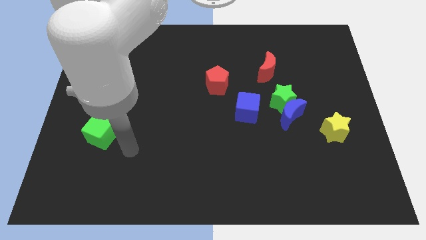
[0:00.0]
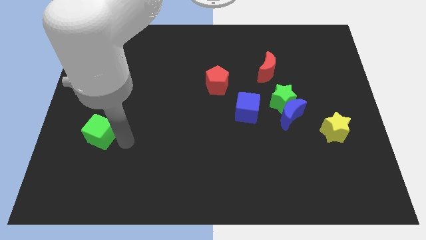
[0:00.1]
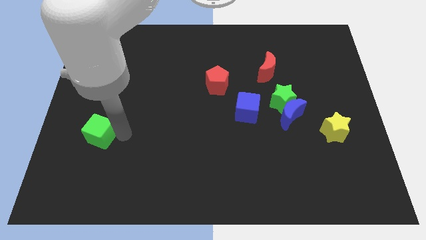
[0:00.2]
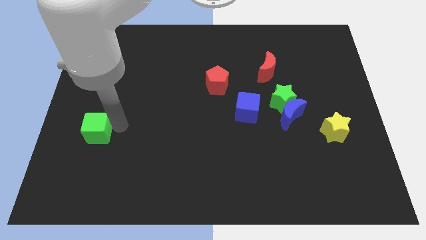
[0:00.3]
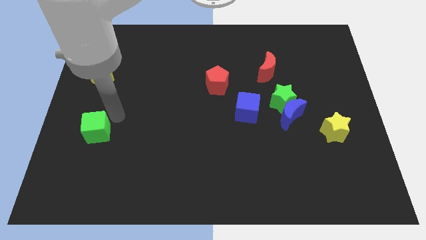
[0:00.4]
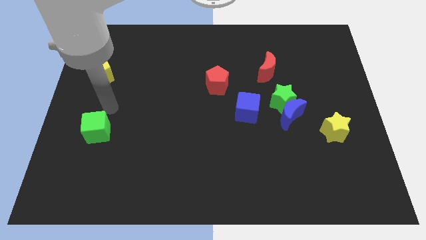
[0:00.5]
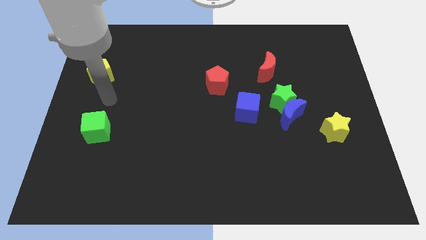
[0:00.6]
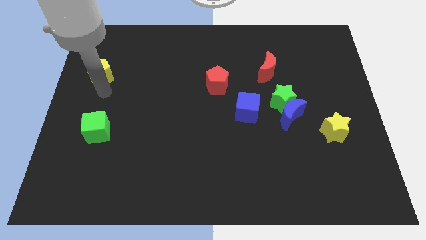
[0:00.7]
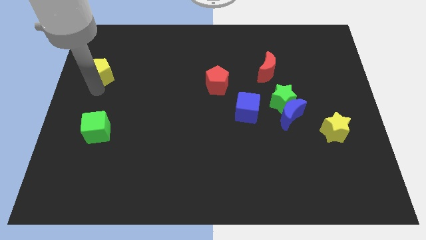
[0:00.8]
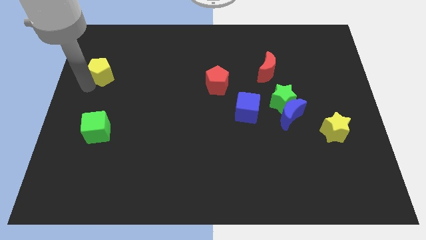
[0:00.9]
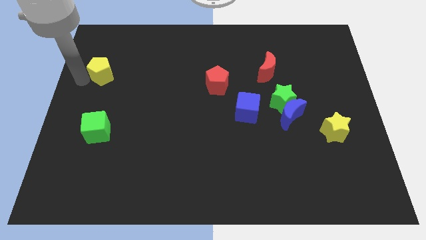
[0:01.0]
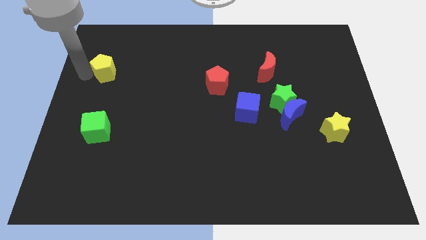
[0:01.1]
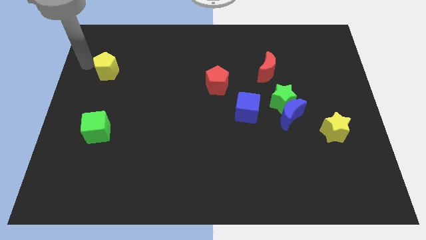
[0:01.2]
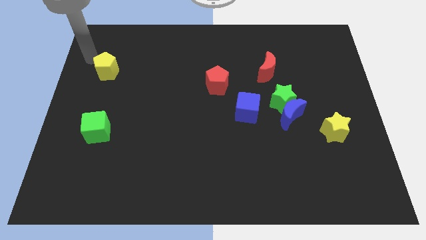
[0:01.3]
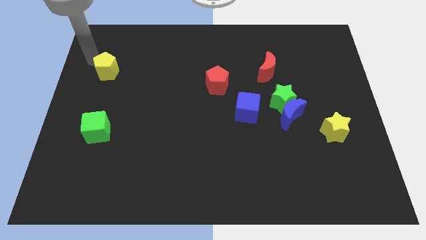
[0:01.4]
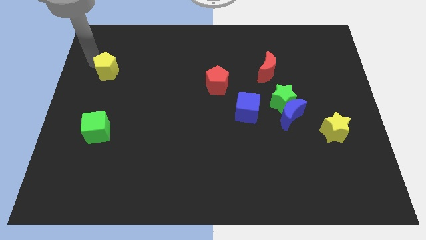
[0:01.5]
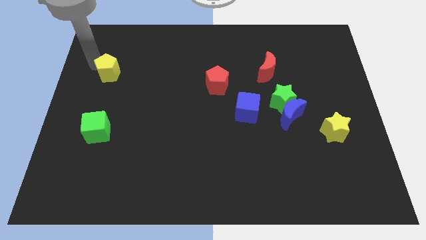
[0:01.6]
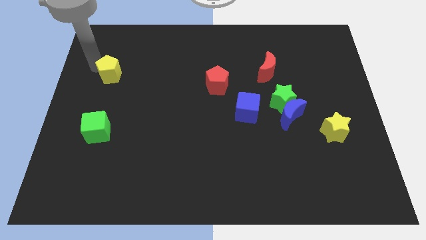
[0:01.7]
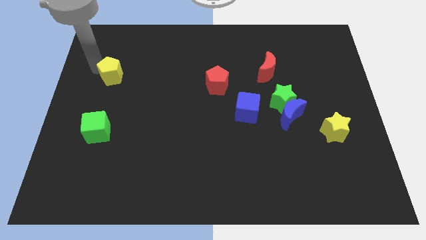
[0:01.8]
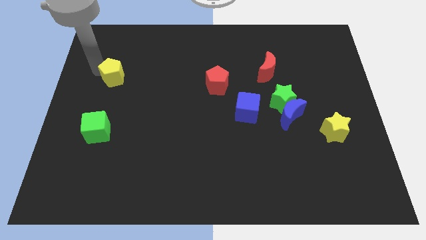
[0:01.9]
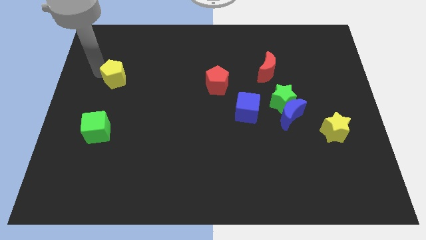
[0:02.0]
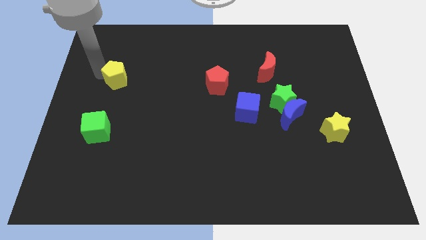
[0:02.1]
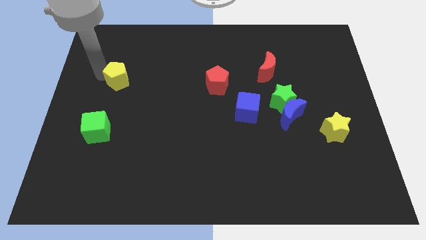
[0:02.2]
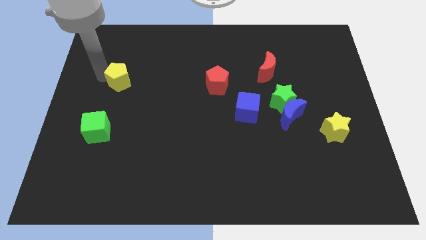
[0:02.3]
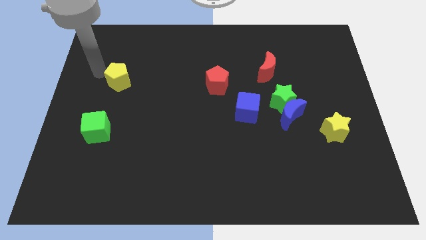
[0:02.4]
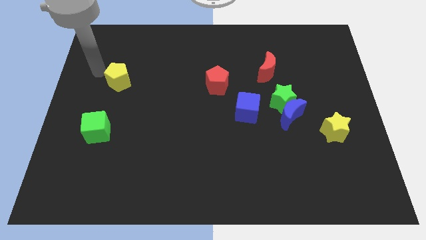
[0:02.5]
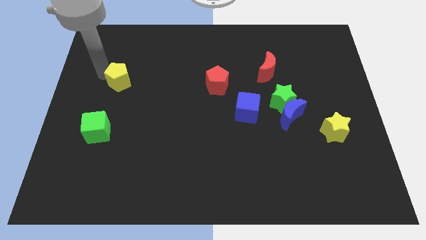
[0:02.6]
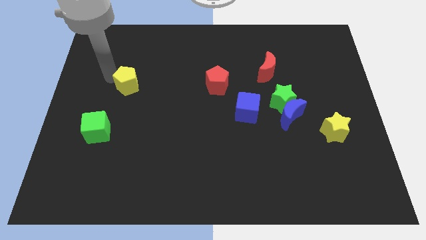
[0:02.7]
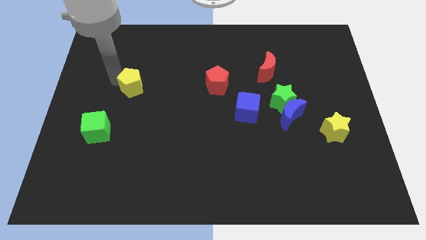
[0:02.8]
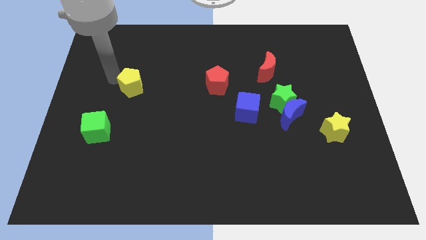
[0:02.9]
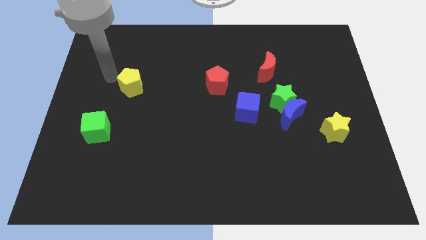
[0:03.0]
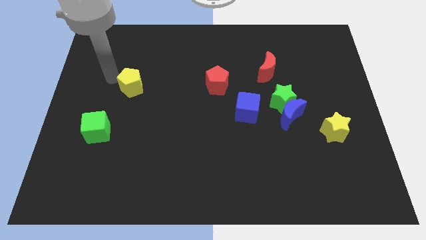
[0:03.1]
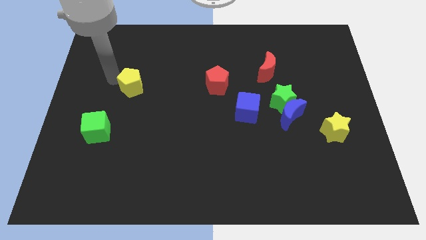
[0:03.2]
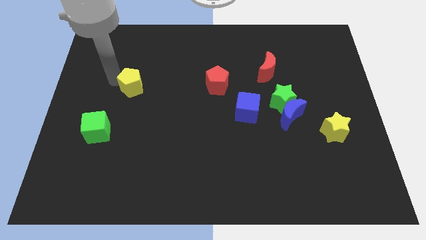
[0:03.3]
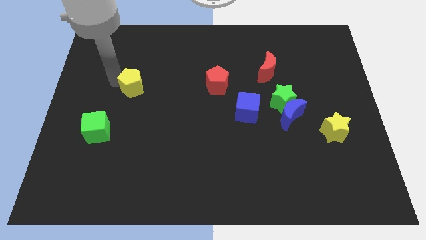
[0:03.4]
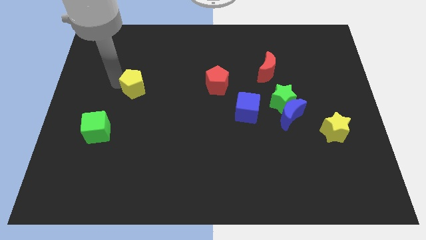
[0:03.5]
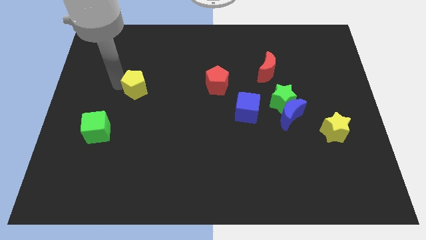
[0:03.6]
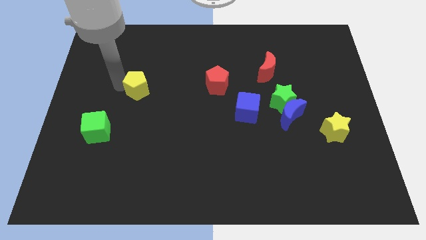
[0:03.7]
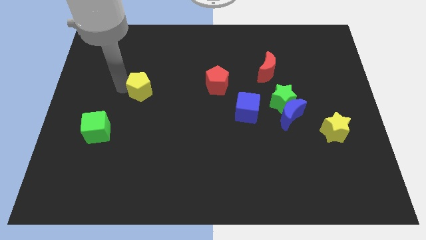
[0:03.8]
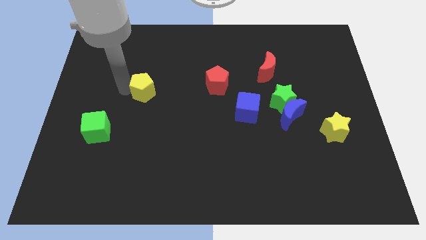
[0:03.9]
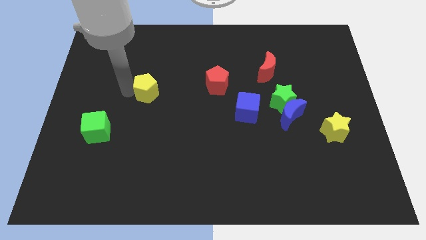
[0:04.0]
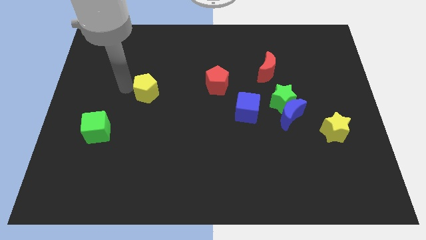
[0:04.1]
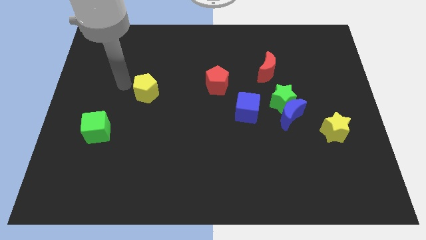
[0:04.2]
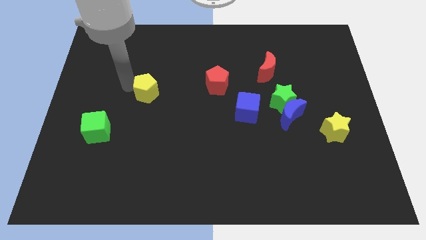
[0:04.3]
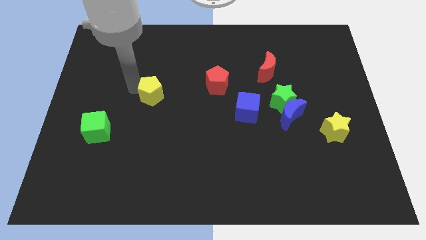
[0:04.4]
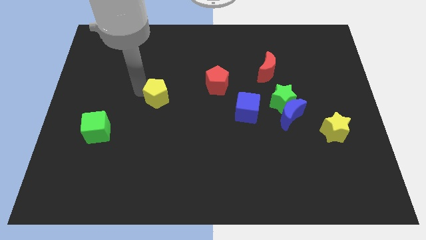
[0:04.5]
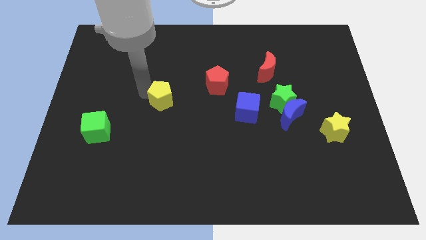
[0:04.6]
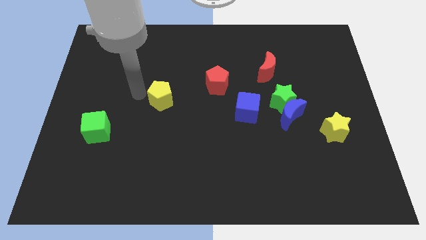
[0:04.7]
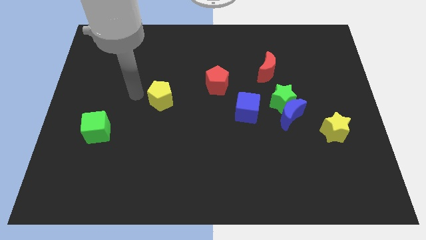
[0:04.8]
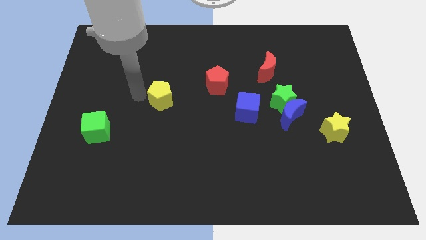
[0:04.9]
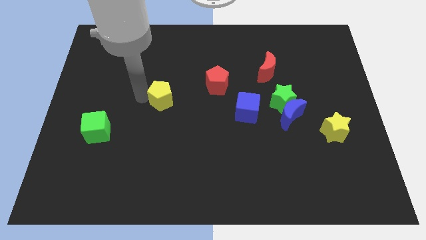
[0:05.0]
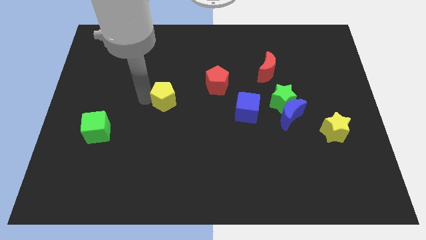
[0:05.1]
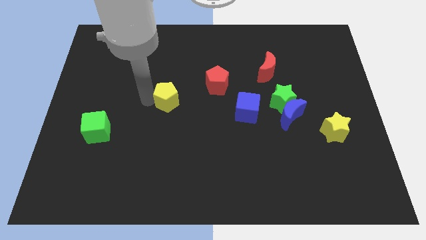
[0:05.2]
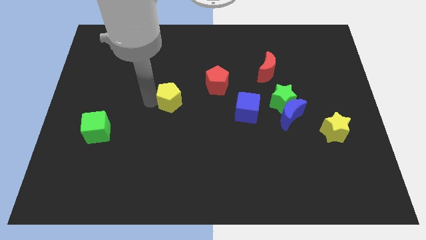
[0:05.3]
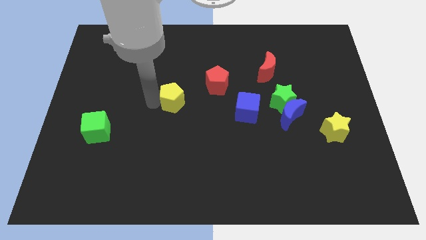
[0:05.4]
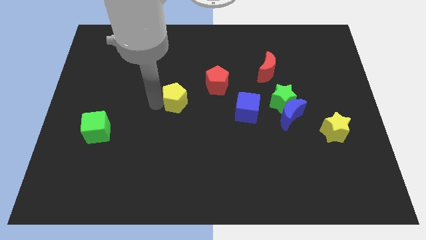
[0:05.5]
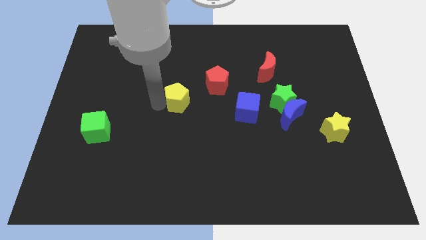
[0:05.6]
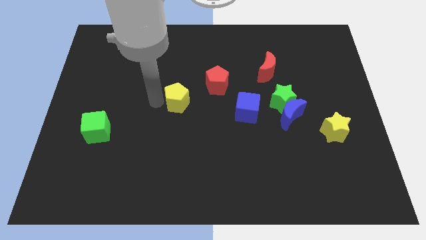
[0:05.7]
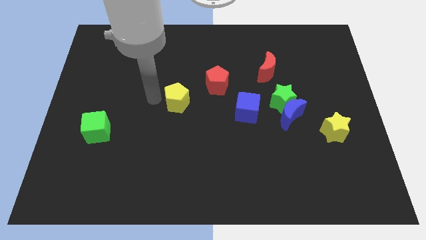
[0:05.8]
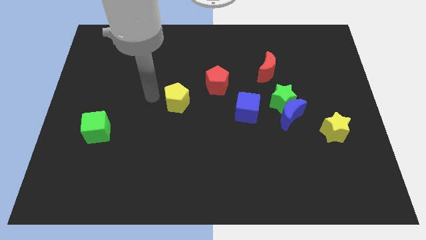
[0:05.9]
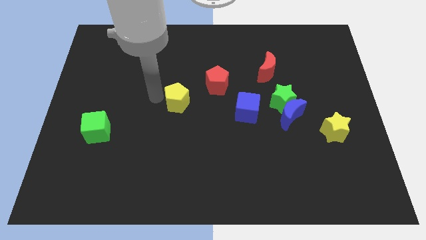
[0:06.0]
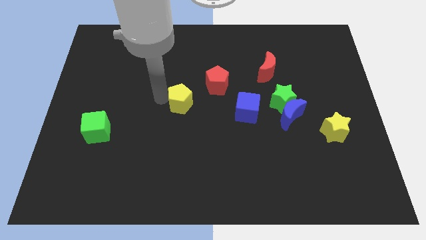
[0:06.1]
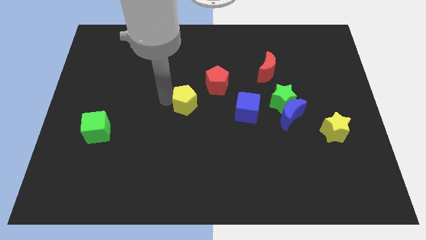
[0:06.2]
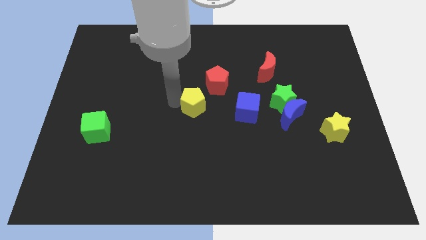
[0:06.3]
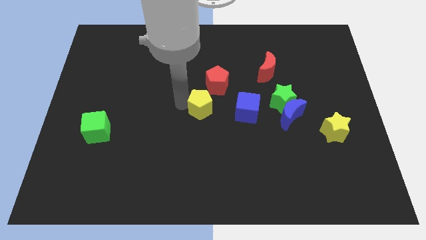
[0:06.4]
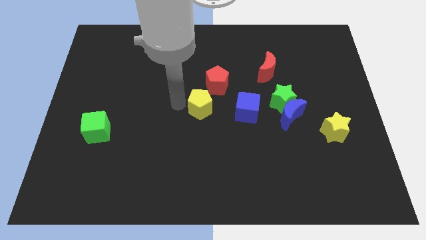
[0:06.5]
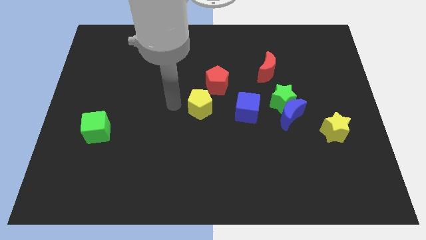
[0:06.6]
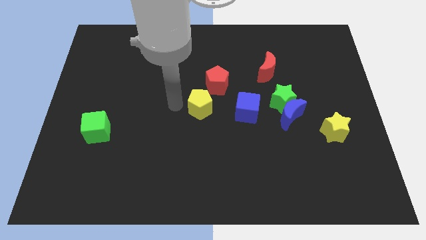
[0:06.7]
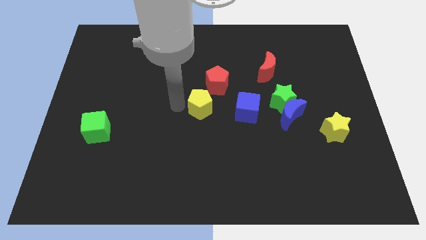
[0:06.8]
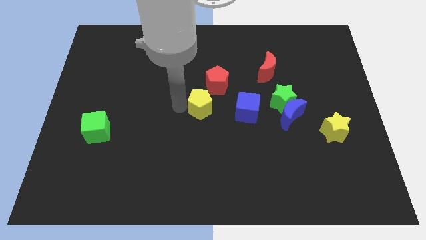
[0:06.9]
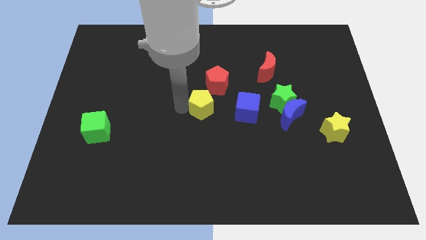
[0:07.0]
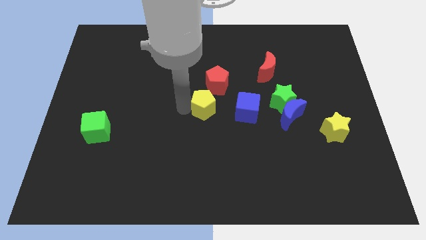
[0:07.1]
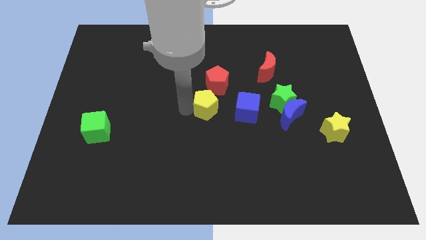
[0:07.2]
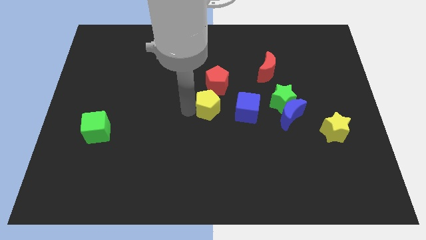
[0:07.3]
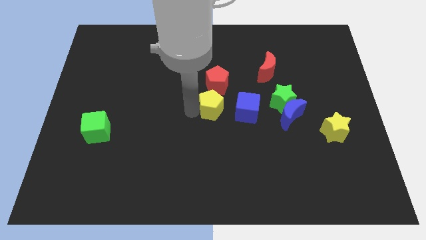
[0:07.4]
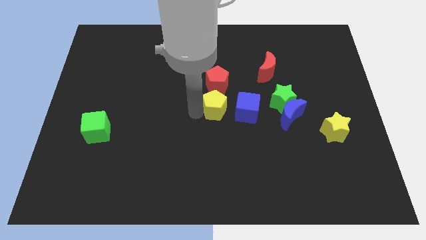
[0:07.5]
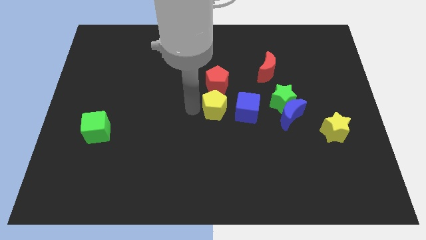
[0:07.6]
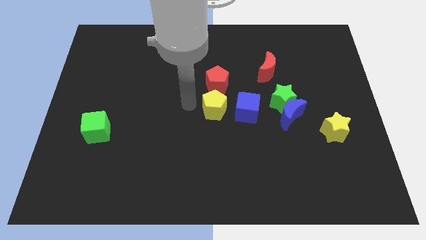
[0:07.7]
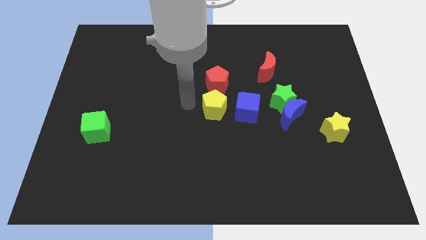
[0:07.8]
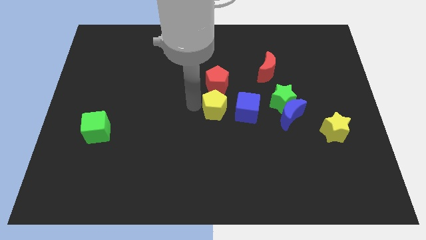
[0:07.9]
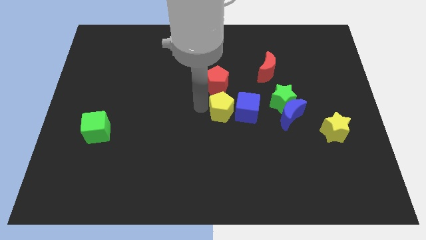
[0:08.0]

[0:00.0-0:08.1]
slide the yellow pentagon to the left side of the blue moon
